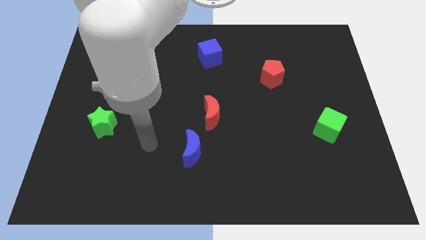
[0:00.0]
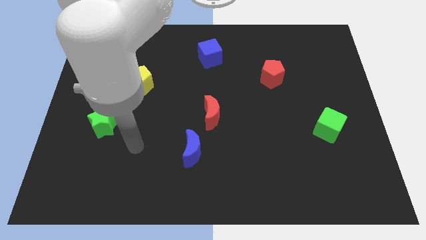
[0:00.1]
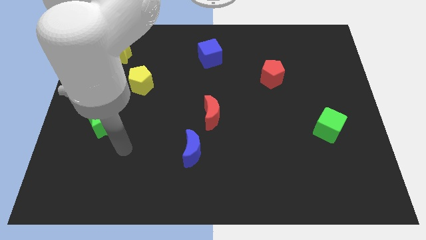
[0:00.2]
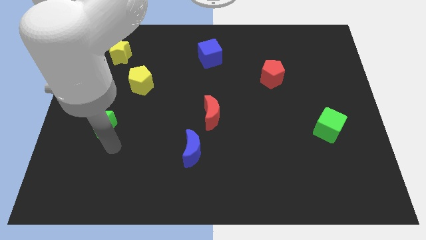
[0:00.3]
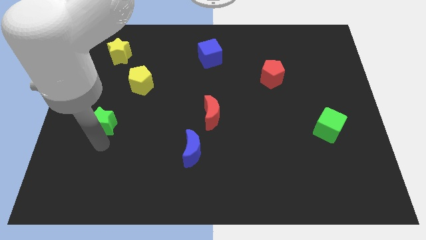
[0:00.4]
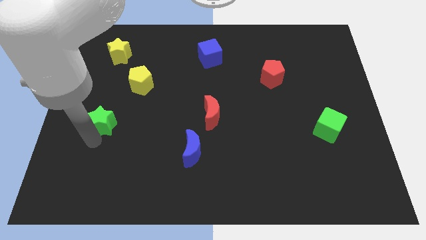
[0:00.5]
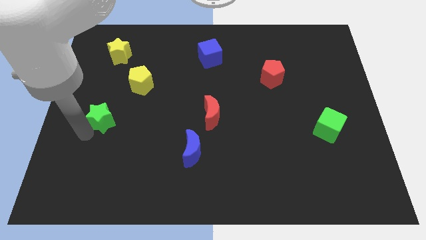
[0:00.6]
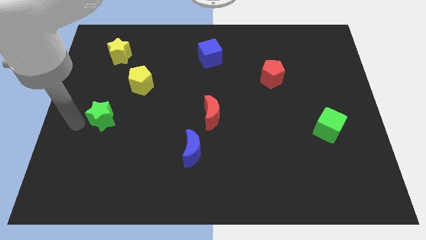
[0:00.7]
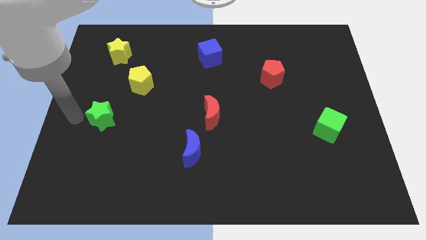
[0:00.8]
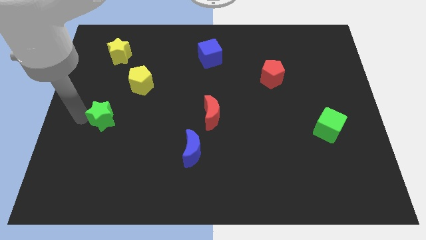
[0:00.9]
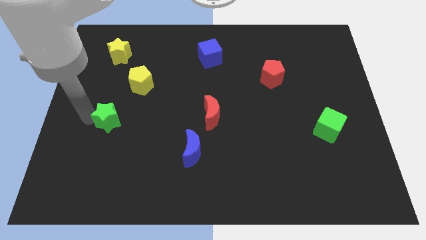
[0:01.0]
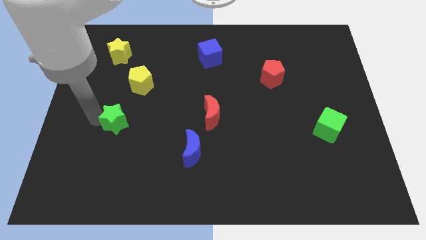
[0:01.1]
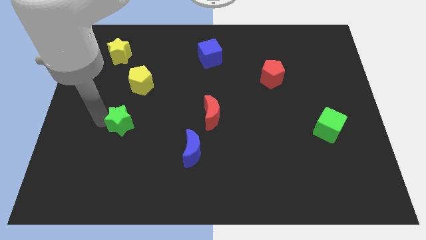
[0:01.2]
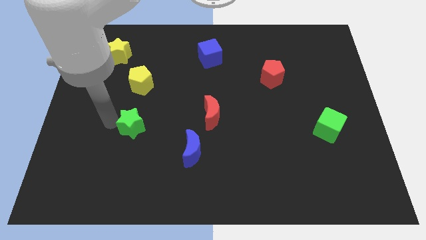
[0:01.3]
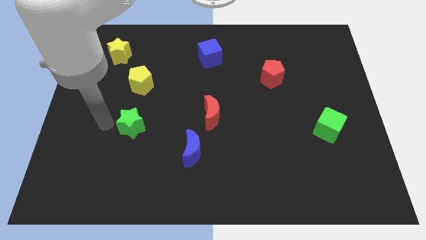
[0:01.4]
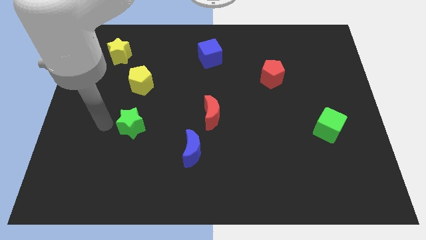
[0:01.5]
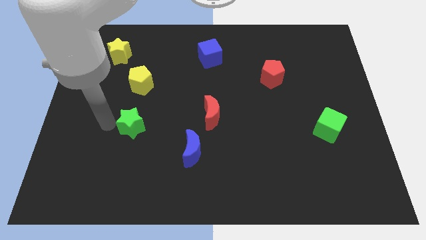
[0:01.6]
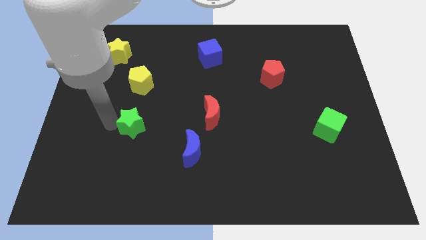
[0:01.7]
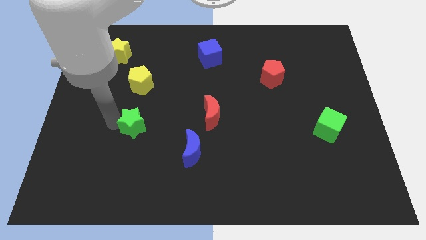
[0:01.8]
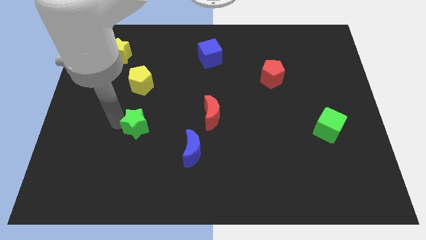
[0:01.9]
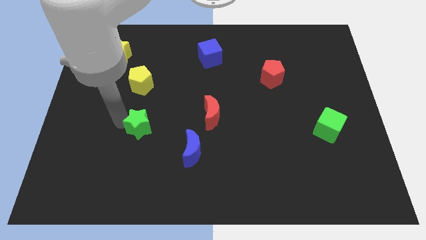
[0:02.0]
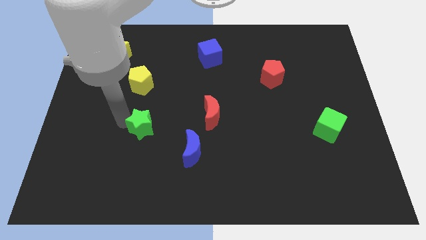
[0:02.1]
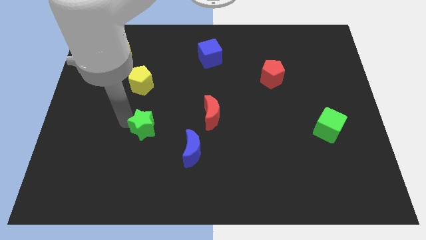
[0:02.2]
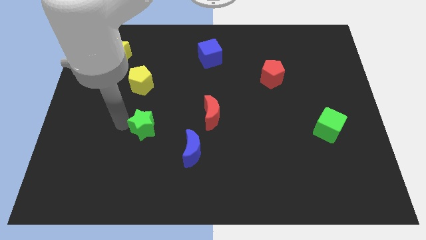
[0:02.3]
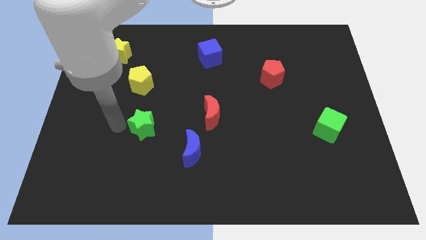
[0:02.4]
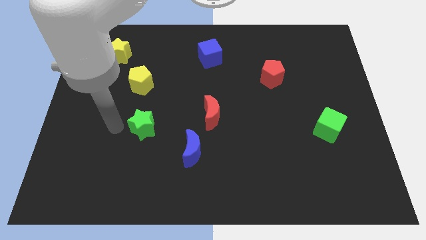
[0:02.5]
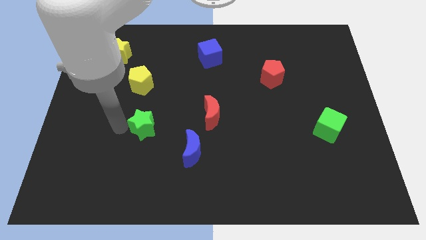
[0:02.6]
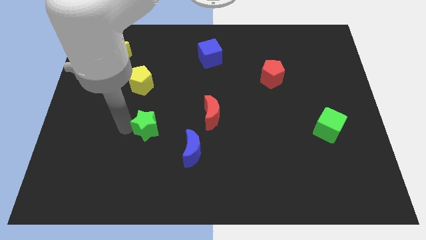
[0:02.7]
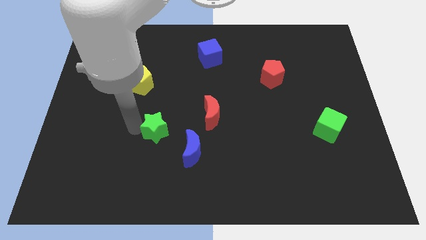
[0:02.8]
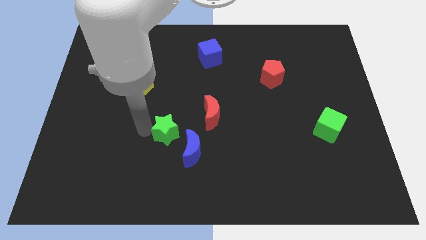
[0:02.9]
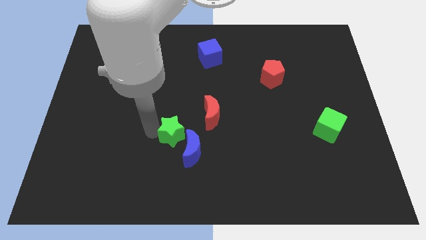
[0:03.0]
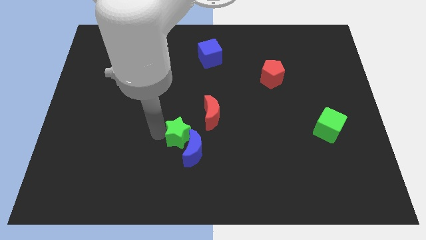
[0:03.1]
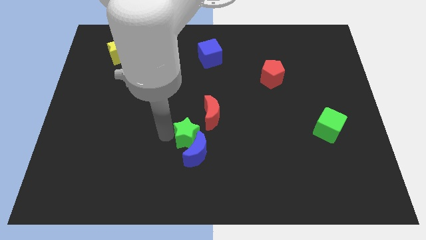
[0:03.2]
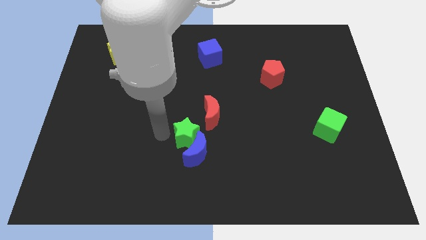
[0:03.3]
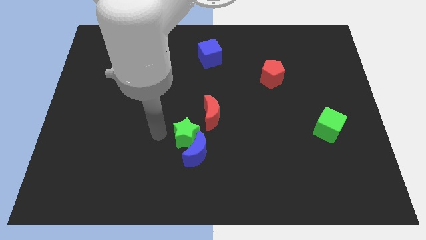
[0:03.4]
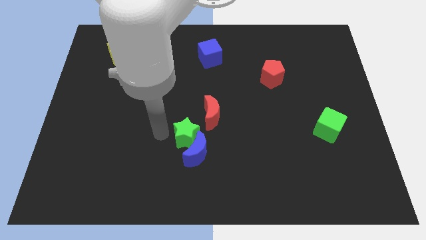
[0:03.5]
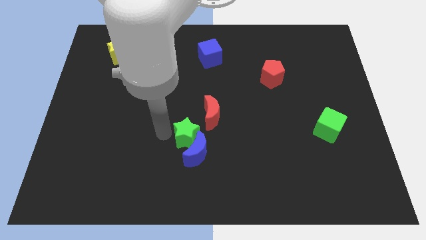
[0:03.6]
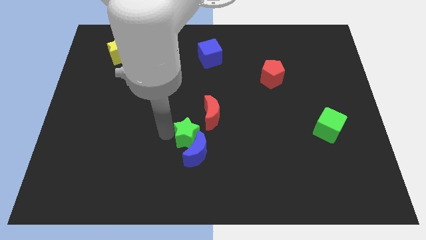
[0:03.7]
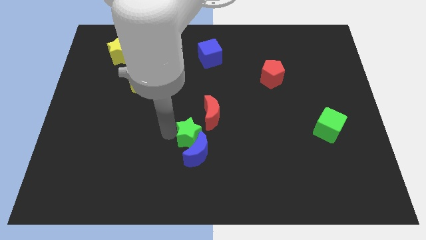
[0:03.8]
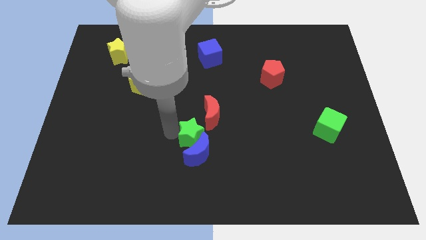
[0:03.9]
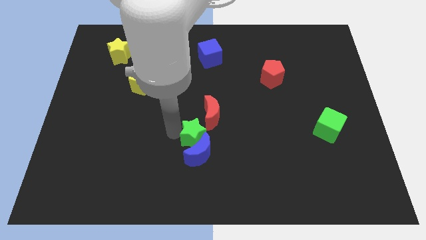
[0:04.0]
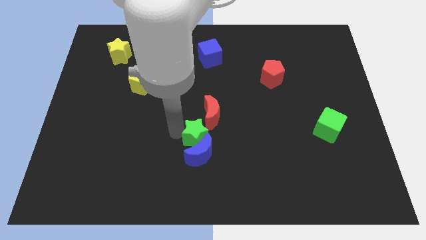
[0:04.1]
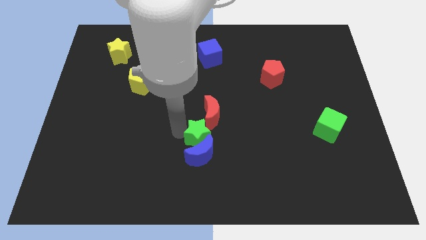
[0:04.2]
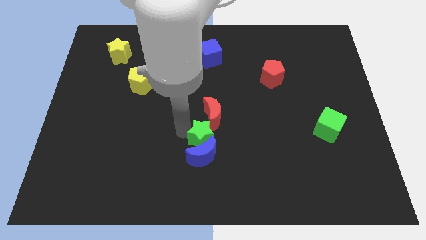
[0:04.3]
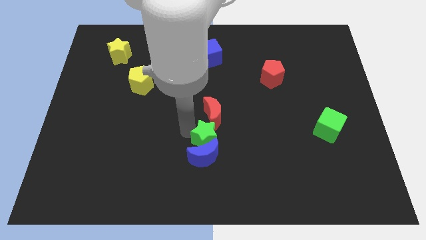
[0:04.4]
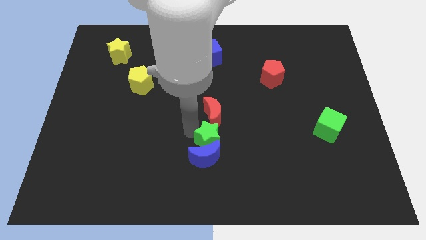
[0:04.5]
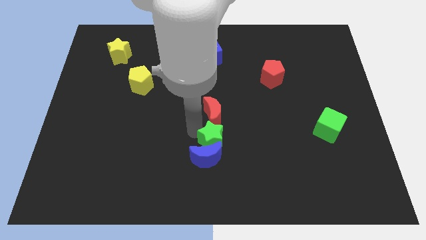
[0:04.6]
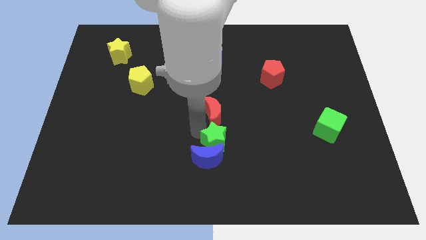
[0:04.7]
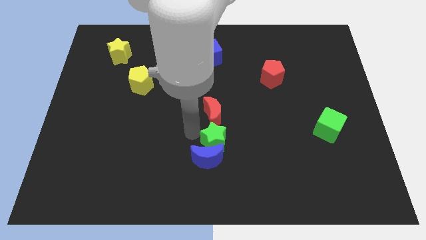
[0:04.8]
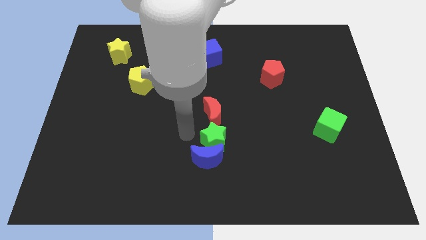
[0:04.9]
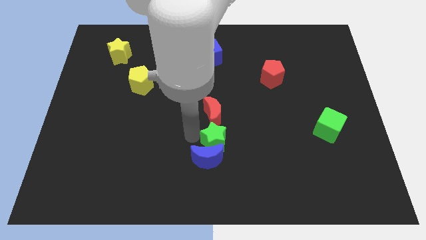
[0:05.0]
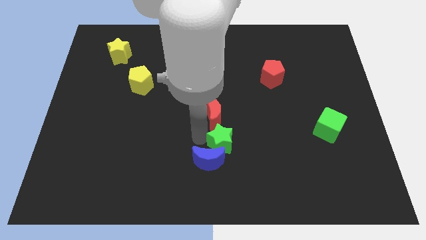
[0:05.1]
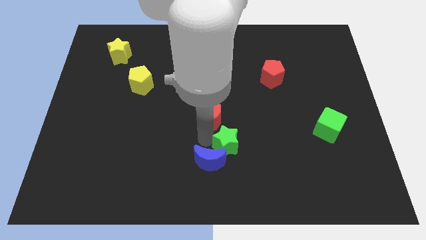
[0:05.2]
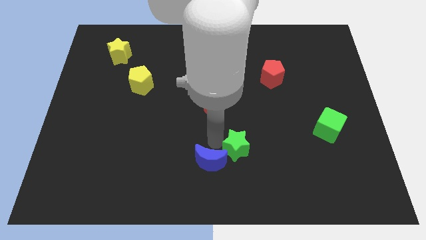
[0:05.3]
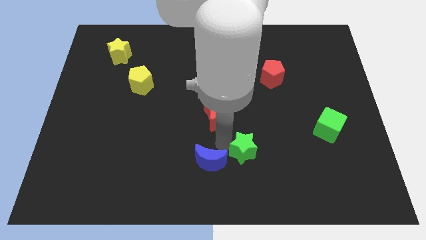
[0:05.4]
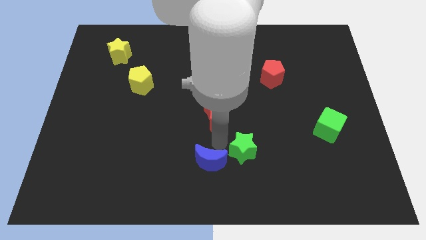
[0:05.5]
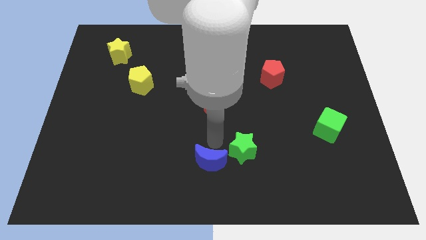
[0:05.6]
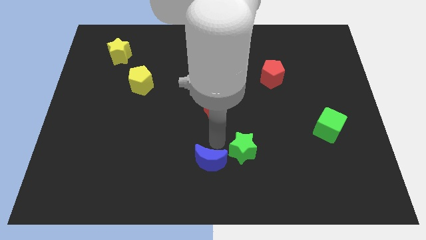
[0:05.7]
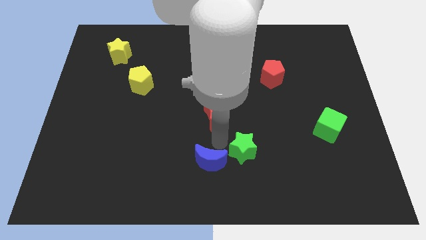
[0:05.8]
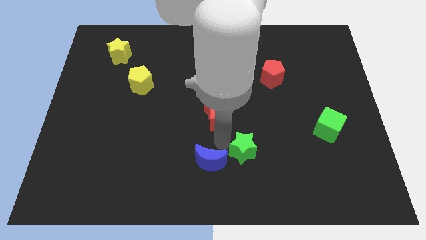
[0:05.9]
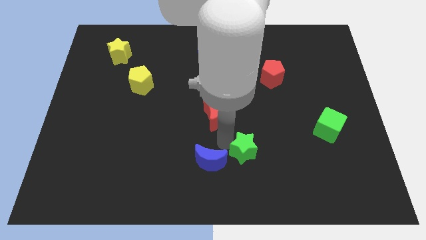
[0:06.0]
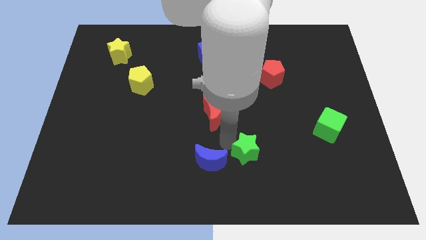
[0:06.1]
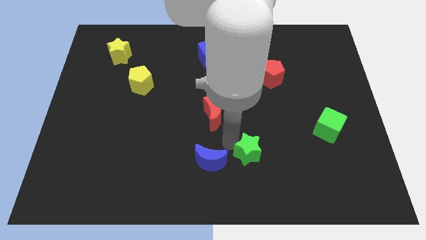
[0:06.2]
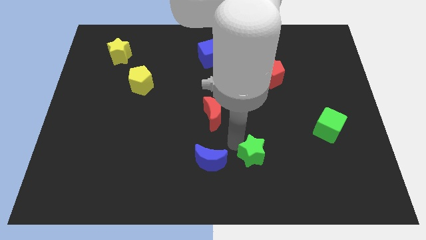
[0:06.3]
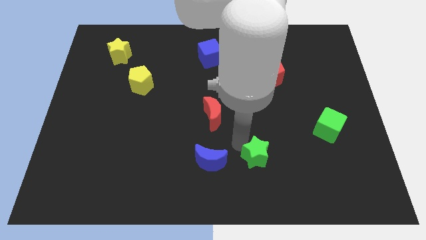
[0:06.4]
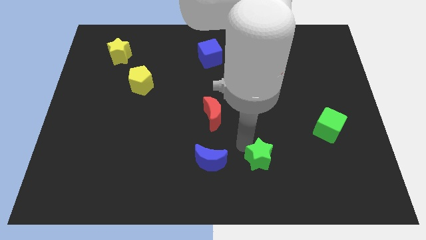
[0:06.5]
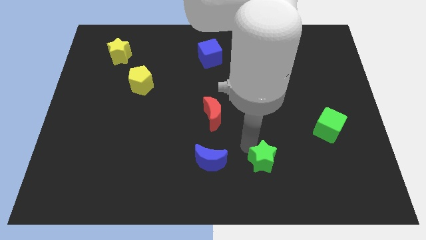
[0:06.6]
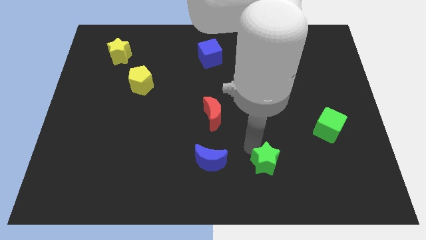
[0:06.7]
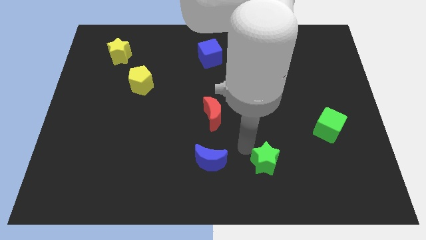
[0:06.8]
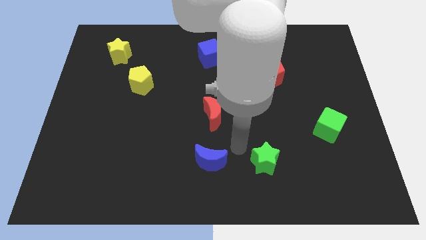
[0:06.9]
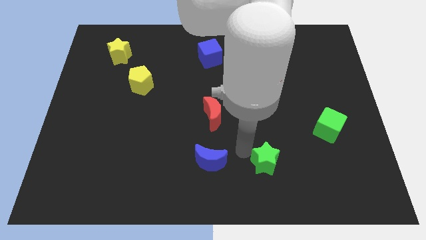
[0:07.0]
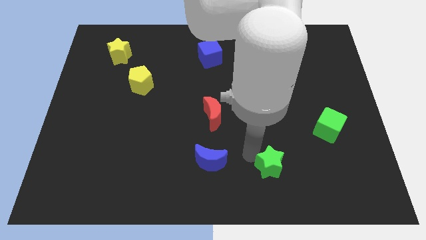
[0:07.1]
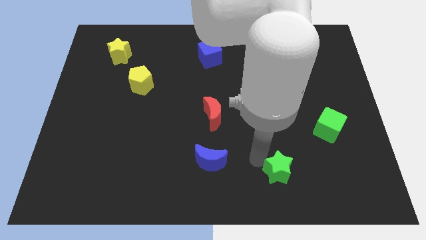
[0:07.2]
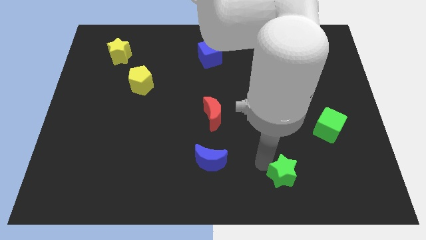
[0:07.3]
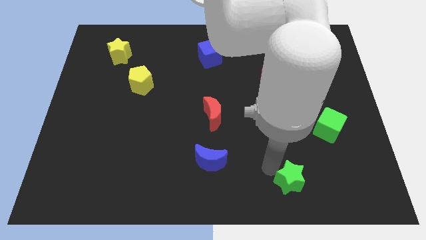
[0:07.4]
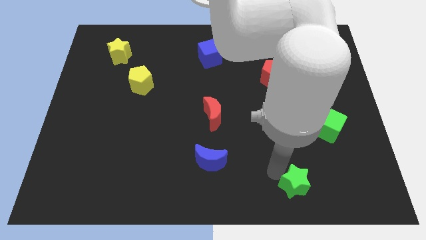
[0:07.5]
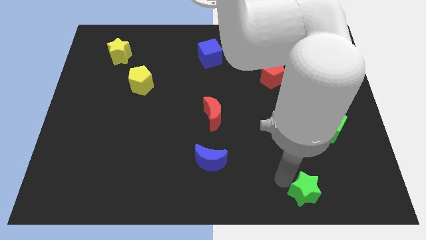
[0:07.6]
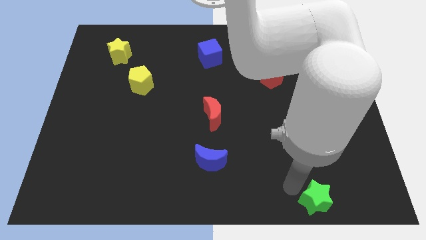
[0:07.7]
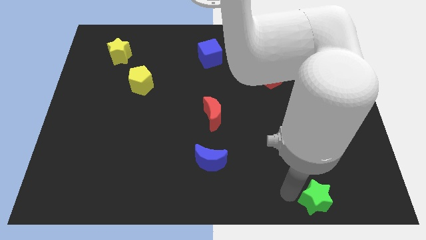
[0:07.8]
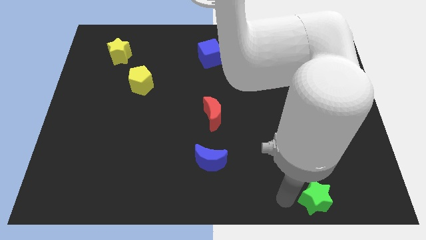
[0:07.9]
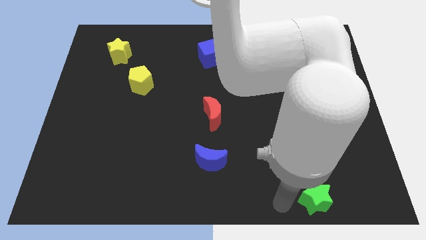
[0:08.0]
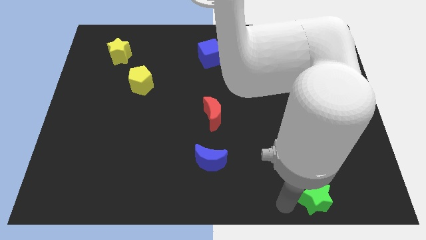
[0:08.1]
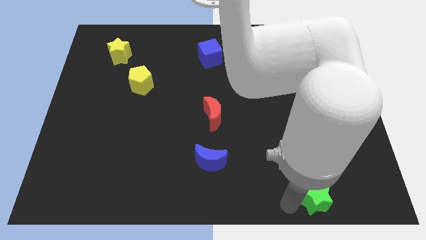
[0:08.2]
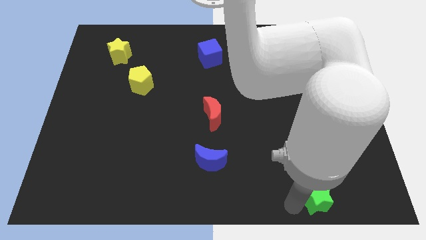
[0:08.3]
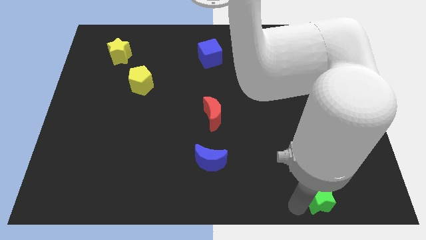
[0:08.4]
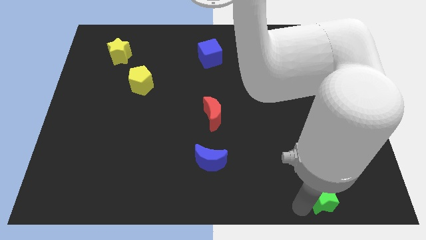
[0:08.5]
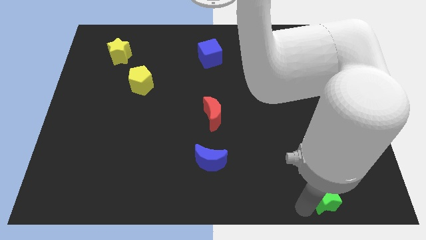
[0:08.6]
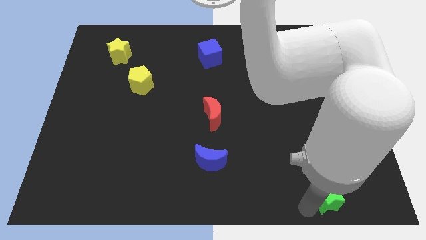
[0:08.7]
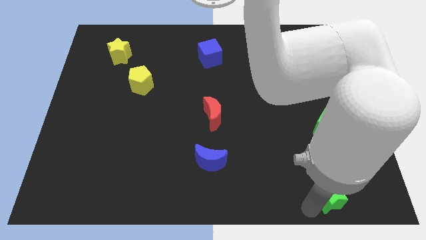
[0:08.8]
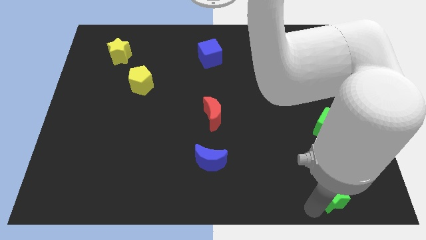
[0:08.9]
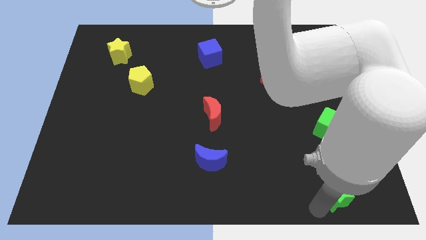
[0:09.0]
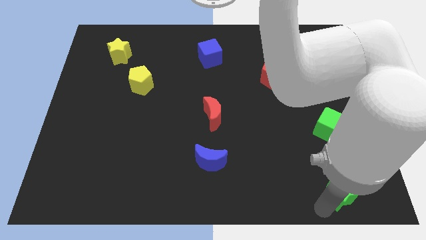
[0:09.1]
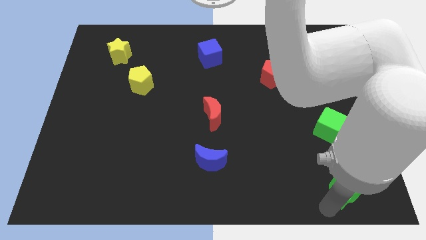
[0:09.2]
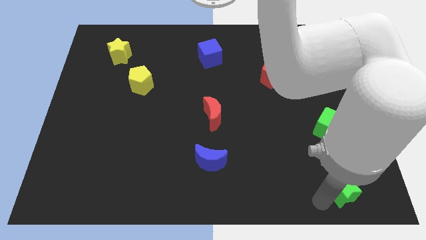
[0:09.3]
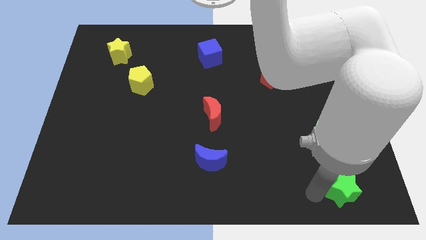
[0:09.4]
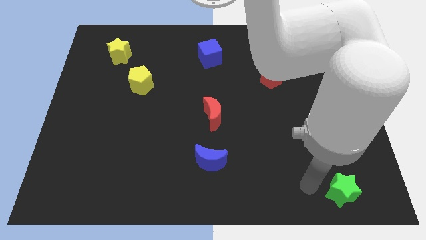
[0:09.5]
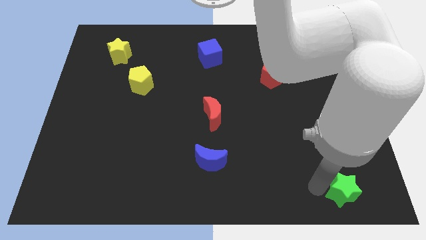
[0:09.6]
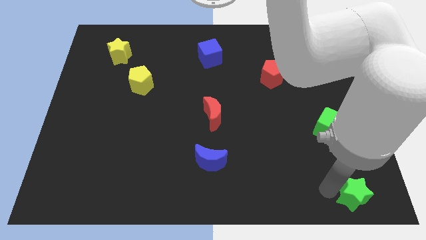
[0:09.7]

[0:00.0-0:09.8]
slide the green star to the bottom right corner
